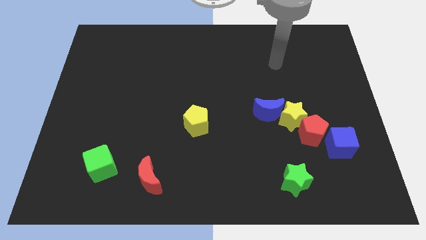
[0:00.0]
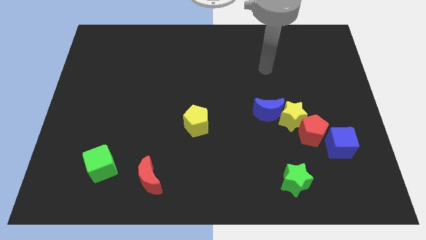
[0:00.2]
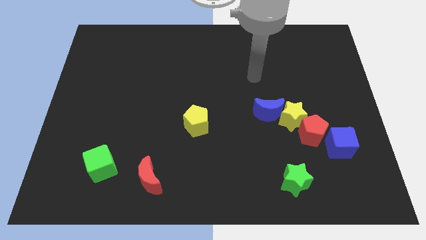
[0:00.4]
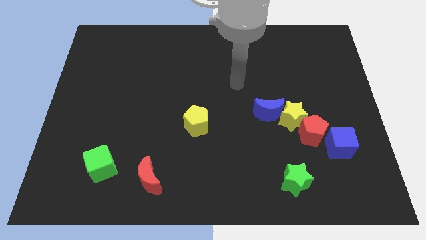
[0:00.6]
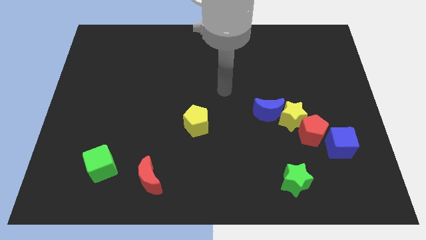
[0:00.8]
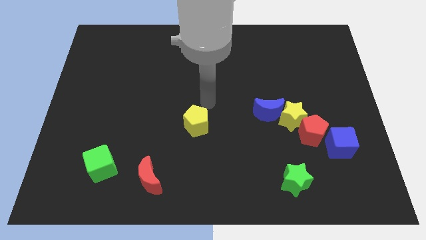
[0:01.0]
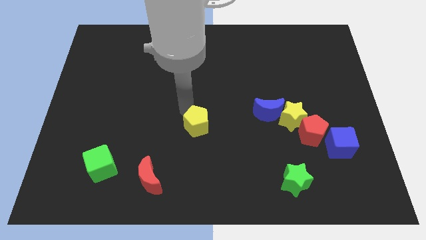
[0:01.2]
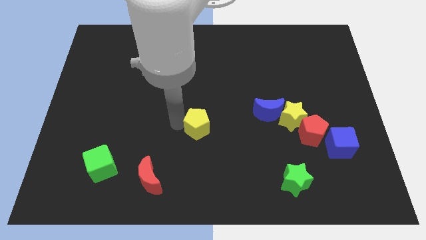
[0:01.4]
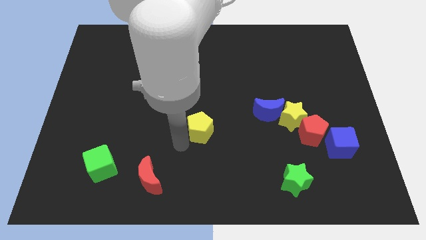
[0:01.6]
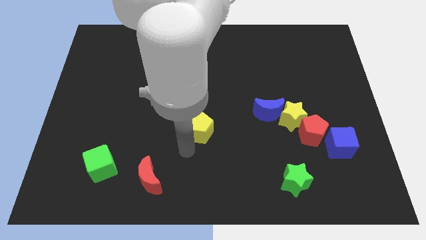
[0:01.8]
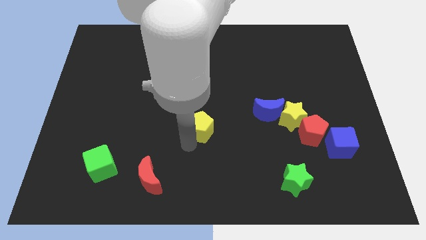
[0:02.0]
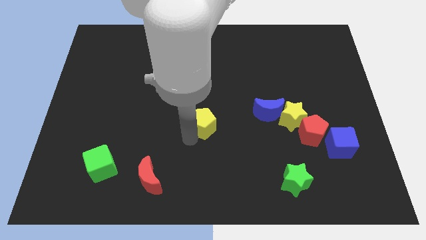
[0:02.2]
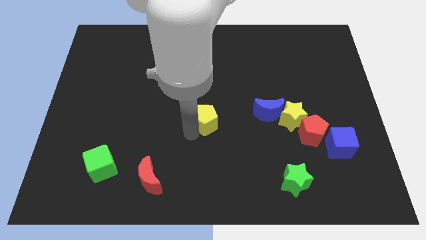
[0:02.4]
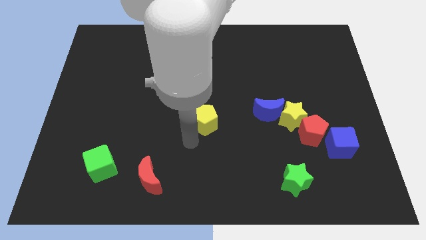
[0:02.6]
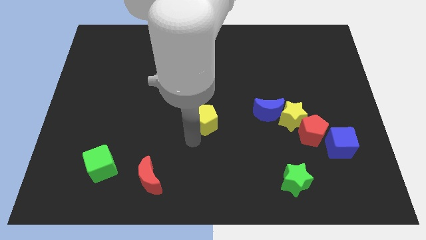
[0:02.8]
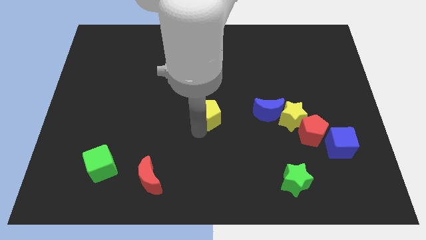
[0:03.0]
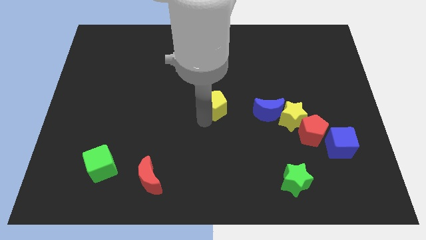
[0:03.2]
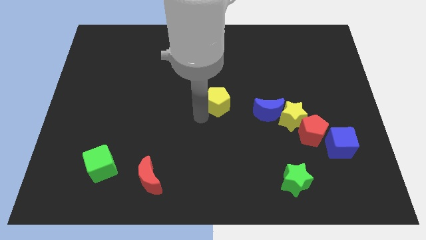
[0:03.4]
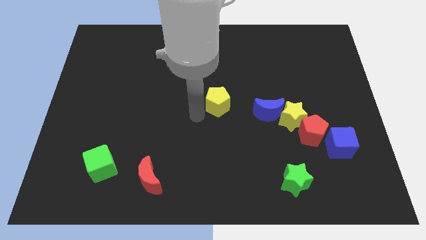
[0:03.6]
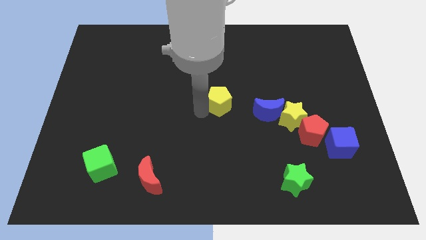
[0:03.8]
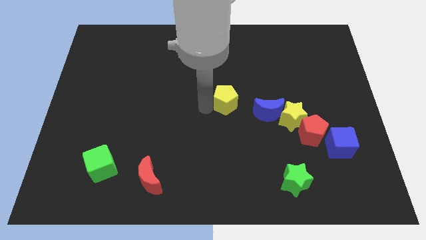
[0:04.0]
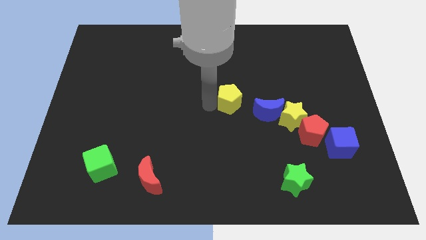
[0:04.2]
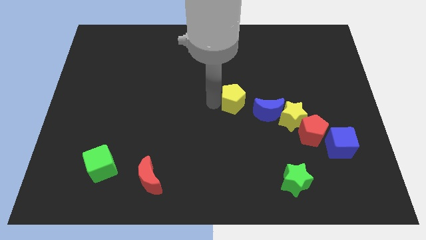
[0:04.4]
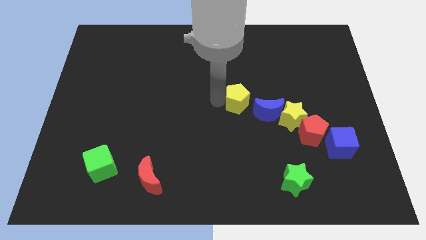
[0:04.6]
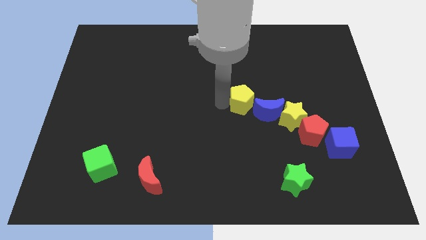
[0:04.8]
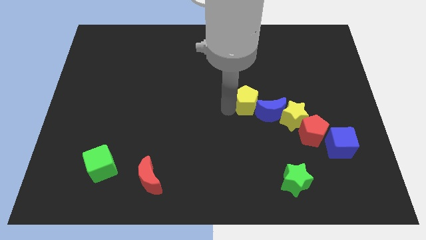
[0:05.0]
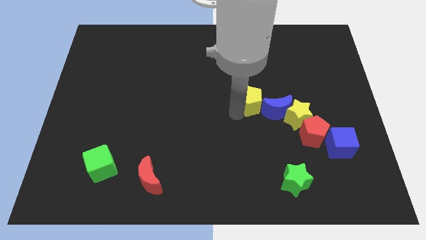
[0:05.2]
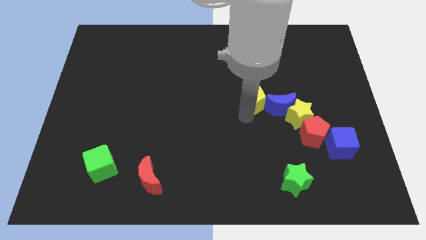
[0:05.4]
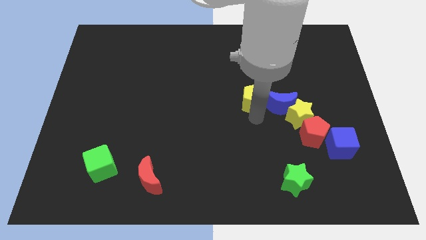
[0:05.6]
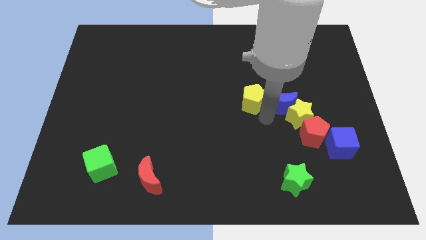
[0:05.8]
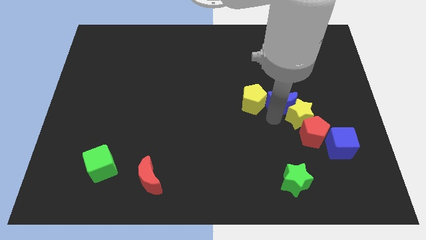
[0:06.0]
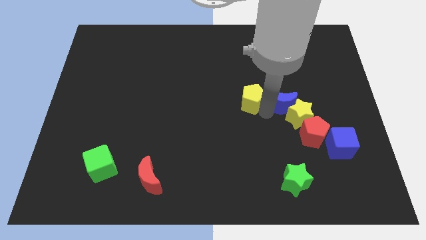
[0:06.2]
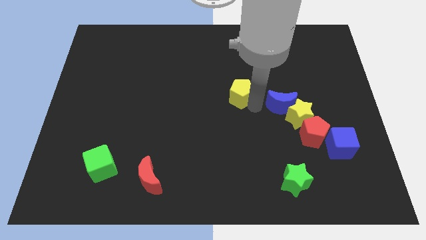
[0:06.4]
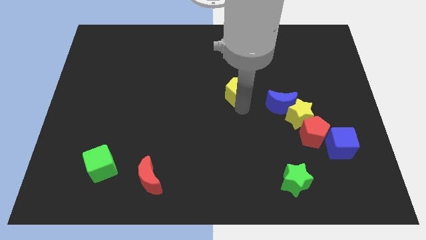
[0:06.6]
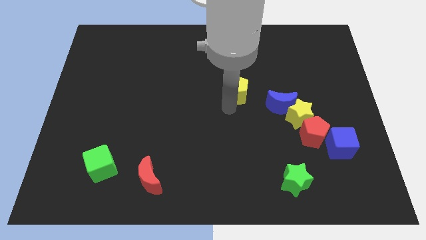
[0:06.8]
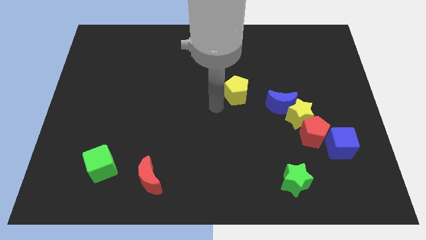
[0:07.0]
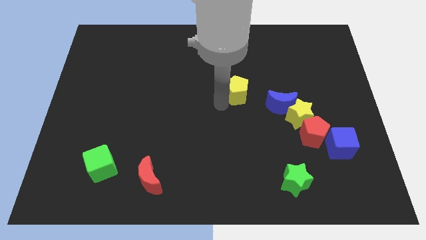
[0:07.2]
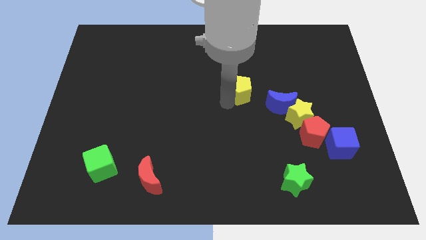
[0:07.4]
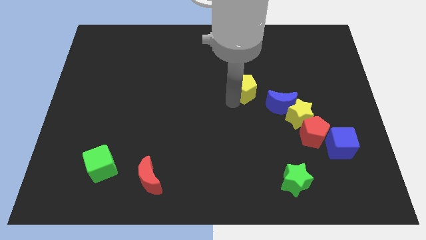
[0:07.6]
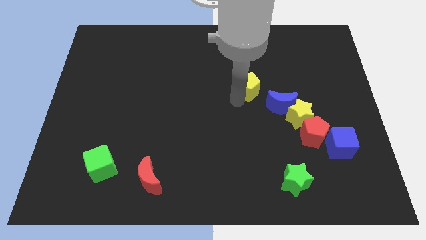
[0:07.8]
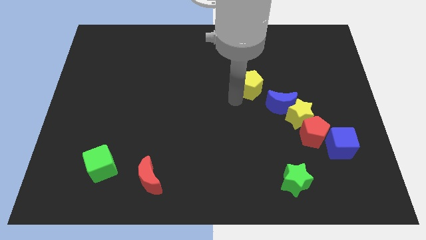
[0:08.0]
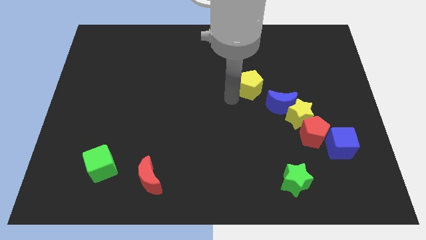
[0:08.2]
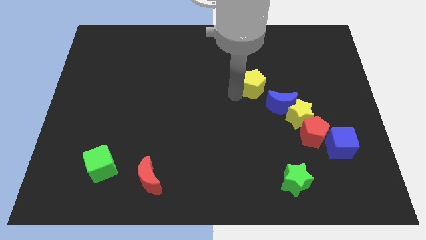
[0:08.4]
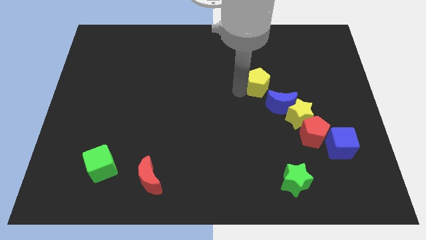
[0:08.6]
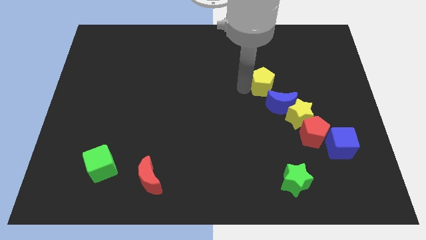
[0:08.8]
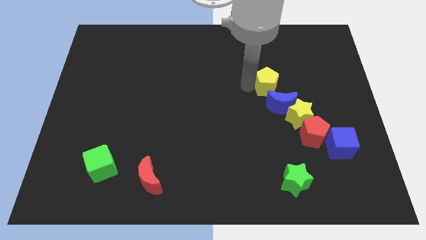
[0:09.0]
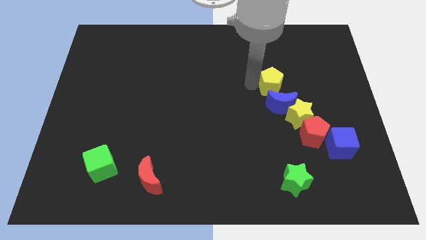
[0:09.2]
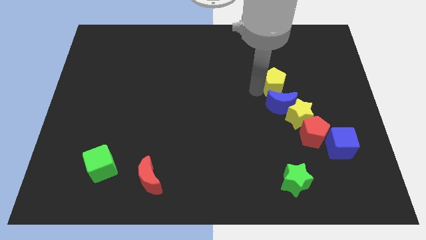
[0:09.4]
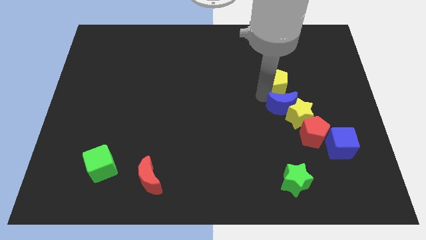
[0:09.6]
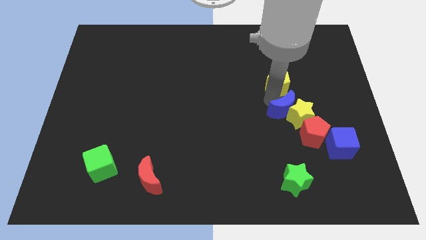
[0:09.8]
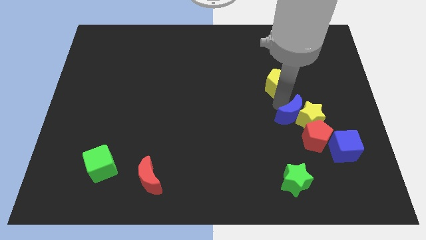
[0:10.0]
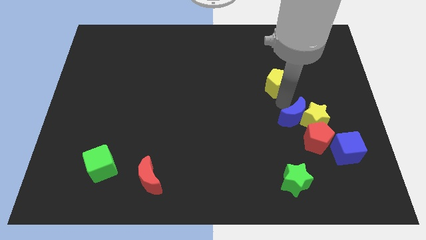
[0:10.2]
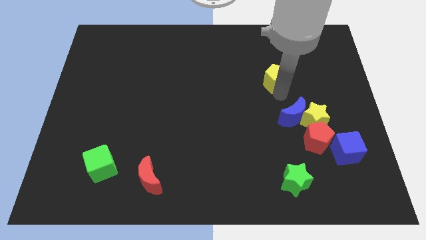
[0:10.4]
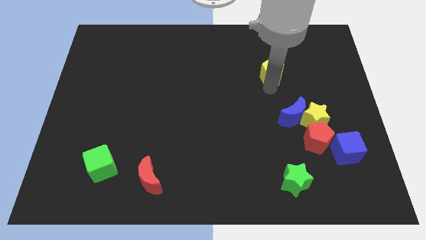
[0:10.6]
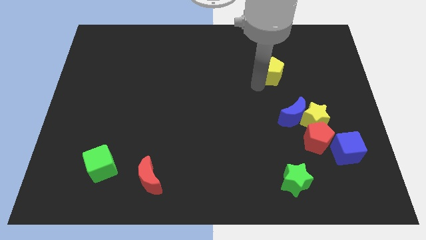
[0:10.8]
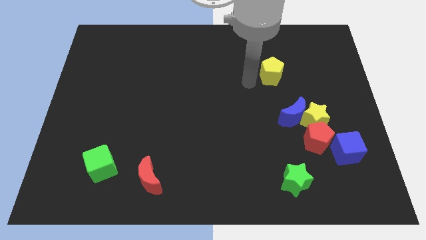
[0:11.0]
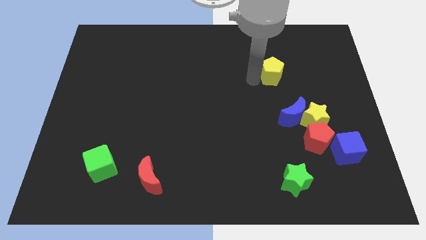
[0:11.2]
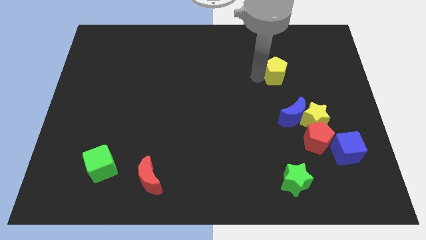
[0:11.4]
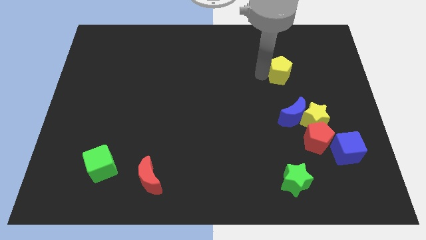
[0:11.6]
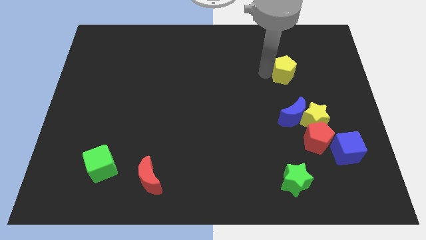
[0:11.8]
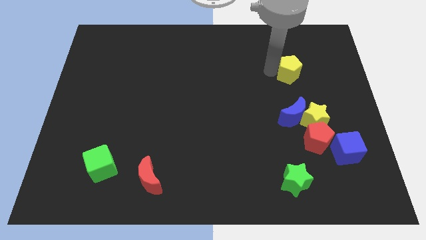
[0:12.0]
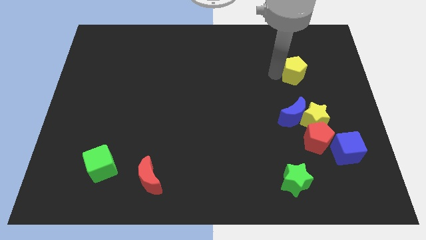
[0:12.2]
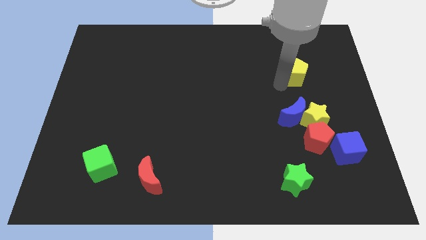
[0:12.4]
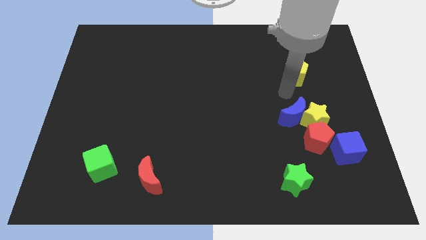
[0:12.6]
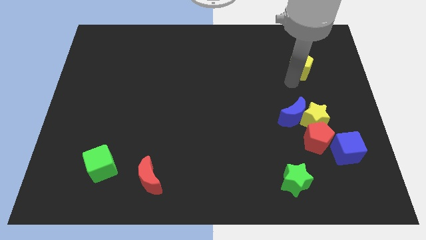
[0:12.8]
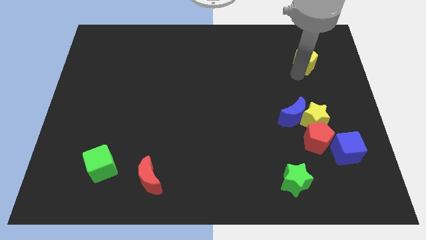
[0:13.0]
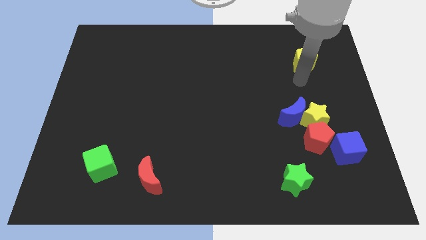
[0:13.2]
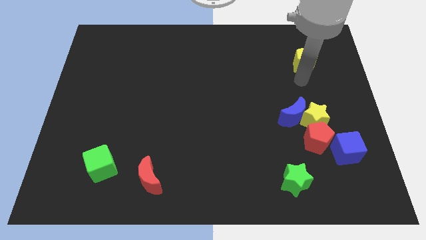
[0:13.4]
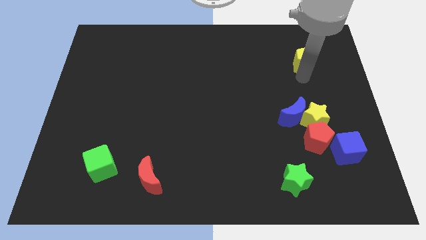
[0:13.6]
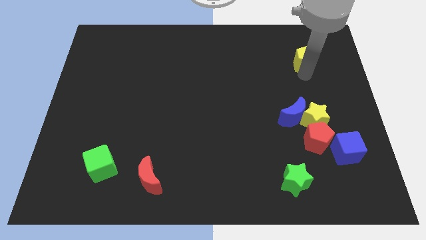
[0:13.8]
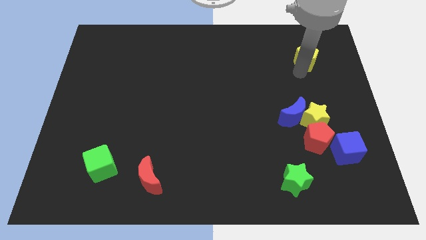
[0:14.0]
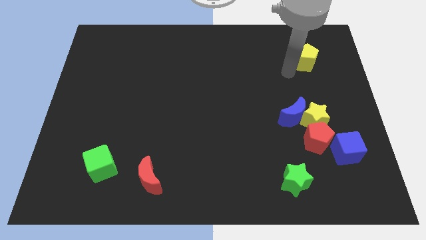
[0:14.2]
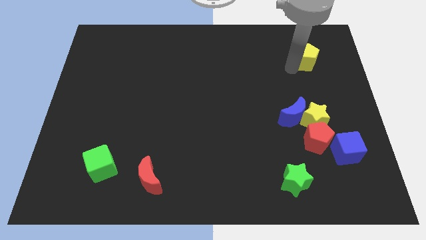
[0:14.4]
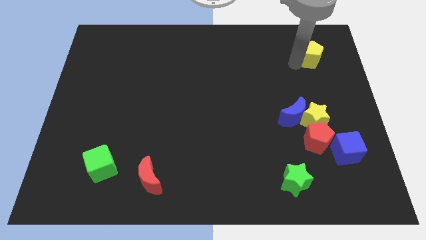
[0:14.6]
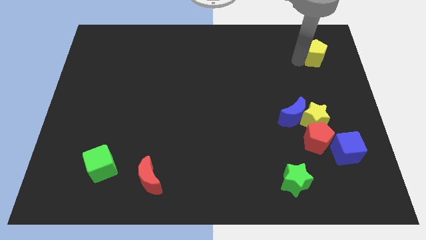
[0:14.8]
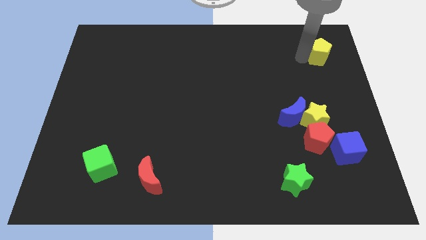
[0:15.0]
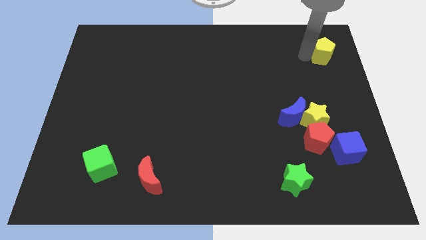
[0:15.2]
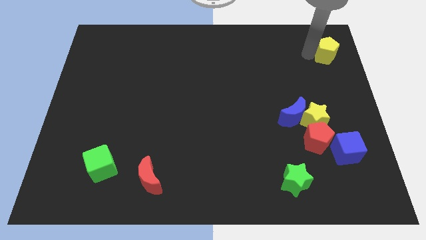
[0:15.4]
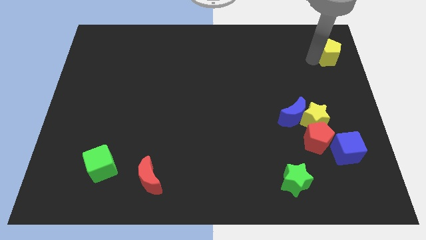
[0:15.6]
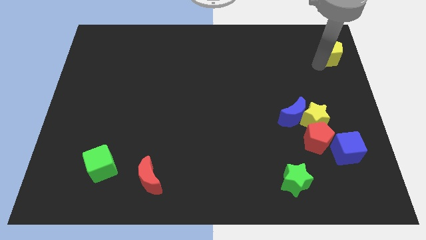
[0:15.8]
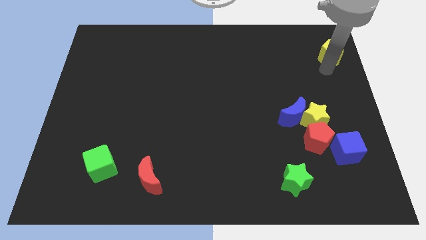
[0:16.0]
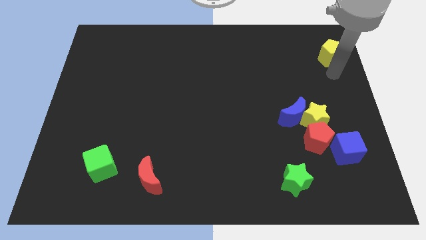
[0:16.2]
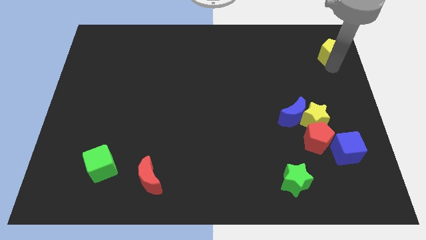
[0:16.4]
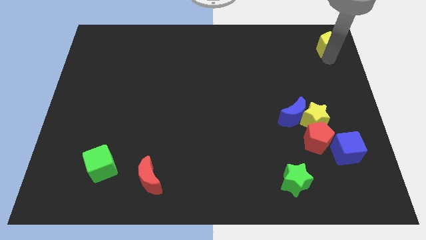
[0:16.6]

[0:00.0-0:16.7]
put the yellow pentagon to the top right of the board
